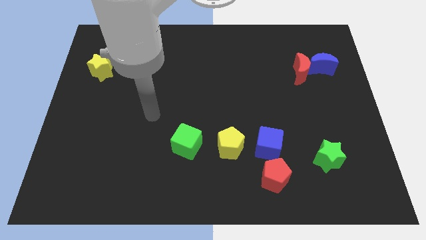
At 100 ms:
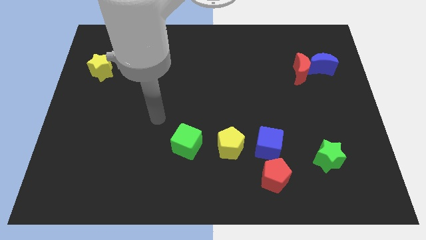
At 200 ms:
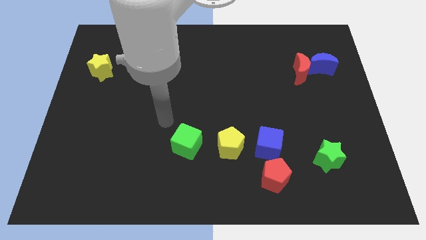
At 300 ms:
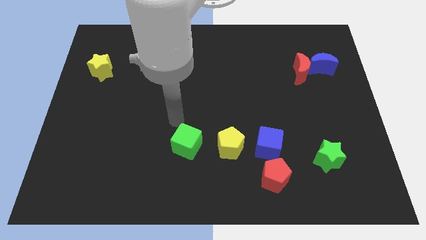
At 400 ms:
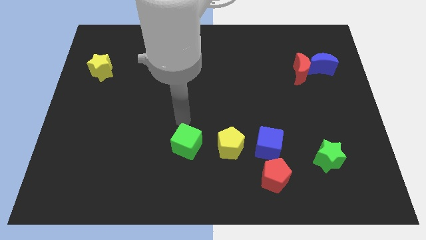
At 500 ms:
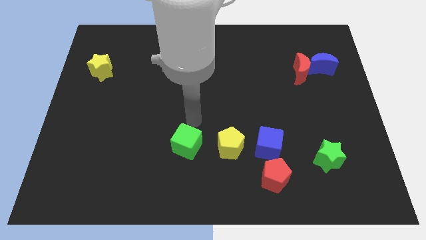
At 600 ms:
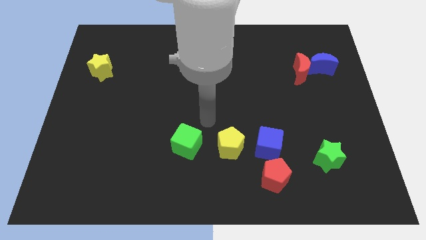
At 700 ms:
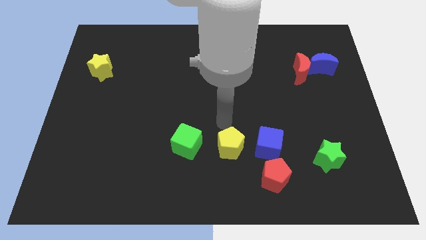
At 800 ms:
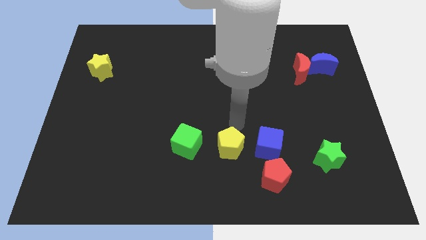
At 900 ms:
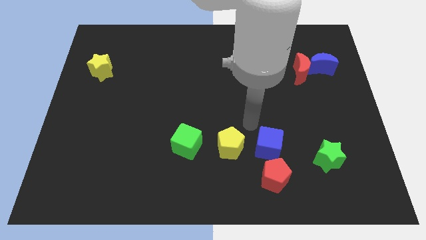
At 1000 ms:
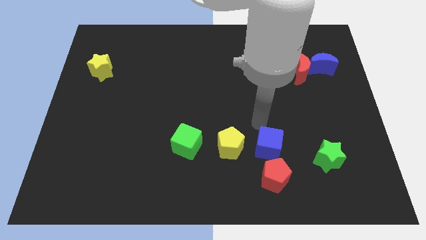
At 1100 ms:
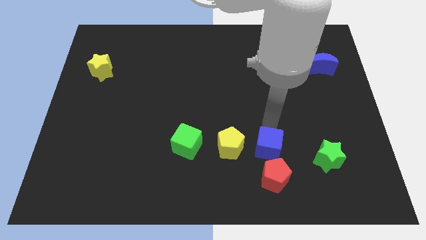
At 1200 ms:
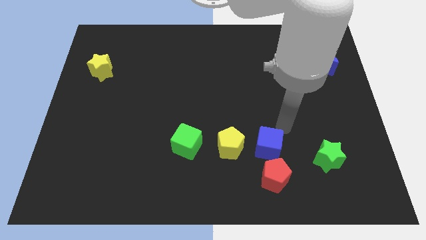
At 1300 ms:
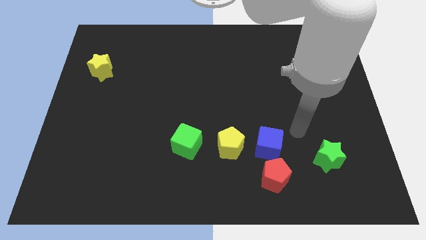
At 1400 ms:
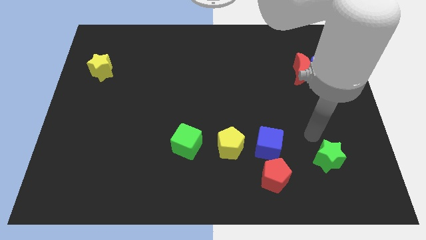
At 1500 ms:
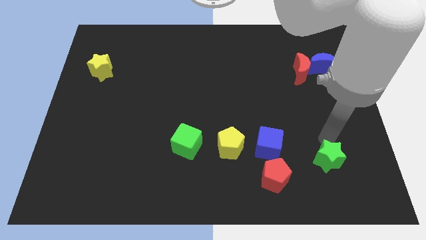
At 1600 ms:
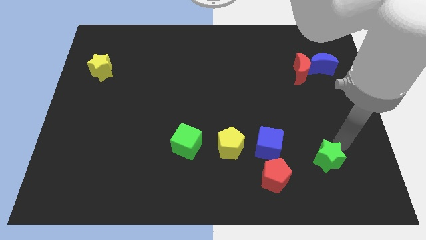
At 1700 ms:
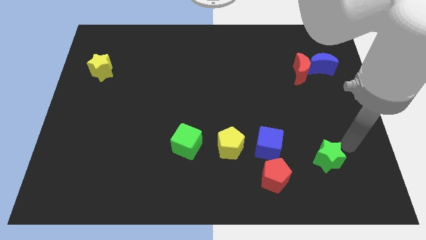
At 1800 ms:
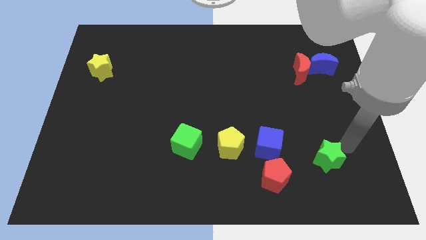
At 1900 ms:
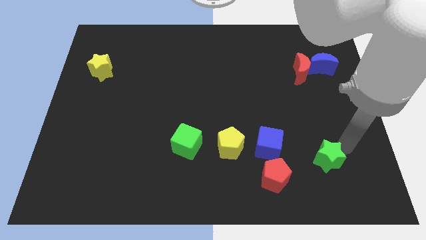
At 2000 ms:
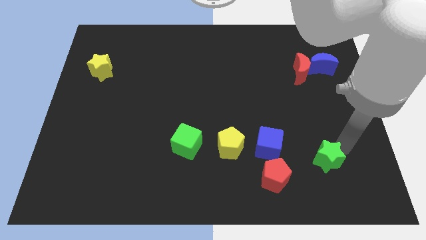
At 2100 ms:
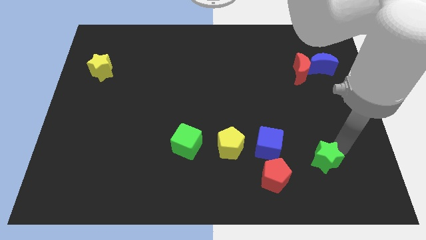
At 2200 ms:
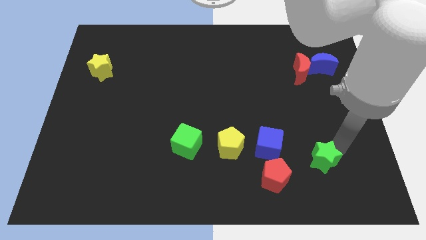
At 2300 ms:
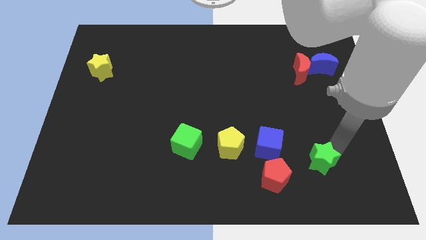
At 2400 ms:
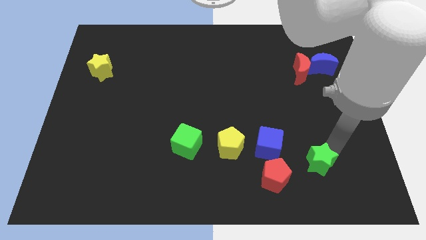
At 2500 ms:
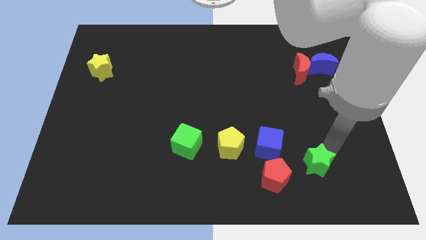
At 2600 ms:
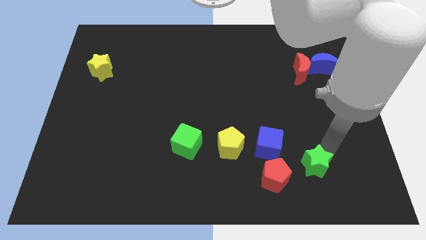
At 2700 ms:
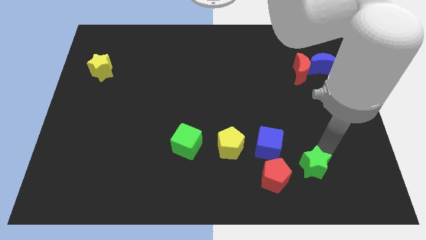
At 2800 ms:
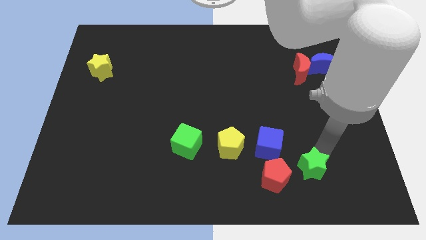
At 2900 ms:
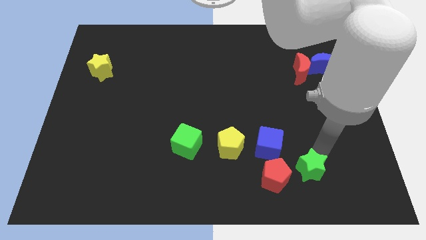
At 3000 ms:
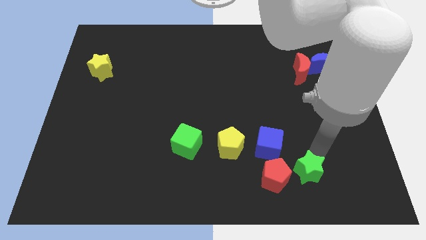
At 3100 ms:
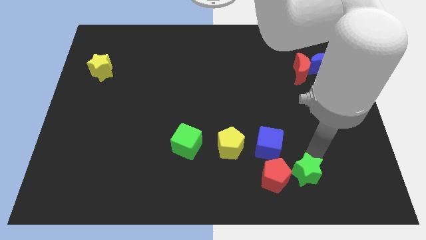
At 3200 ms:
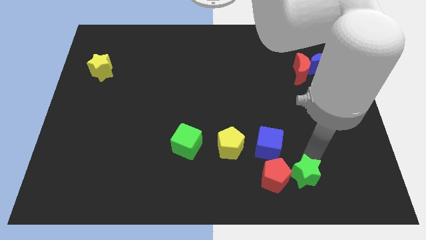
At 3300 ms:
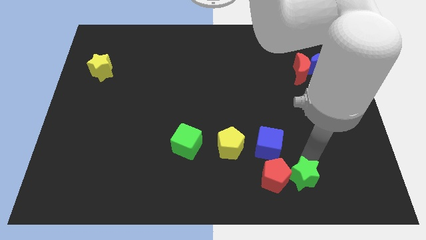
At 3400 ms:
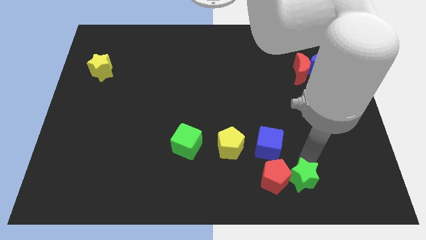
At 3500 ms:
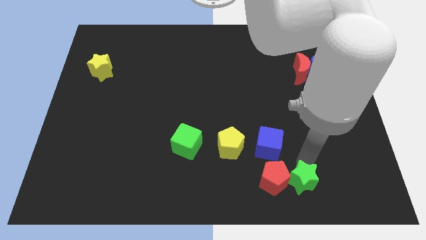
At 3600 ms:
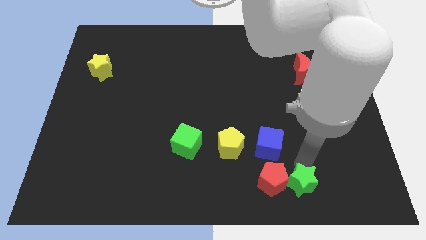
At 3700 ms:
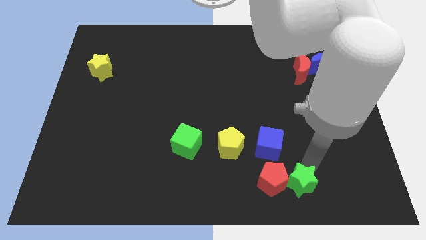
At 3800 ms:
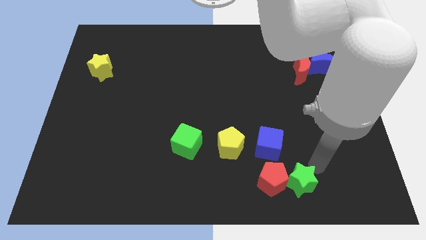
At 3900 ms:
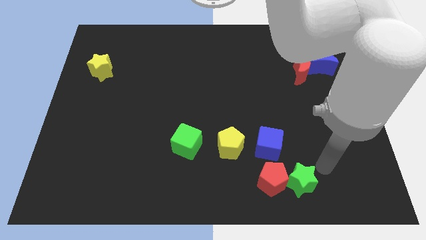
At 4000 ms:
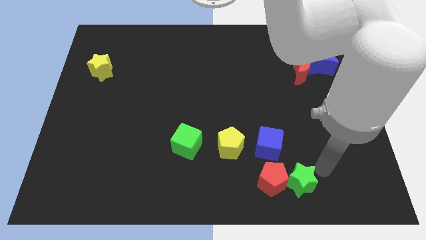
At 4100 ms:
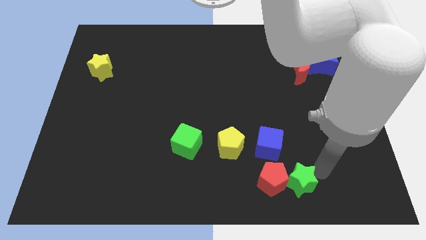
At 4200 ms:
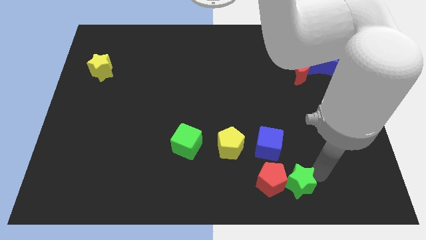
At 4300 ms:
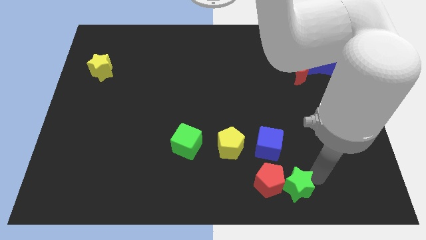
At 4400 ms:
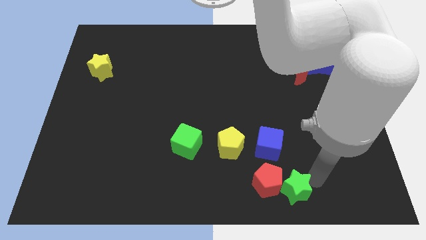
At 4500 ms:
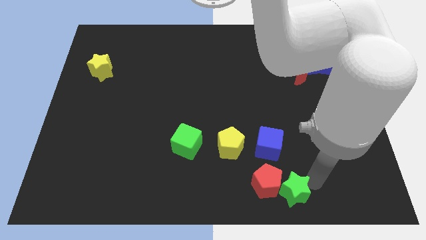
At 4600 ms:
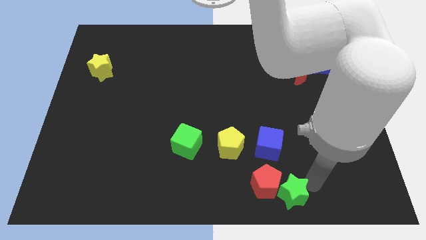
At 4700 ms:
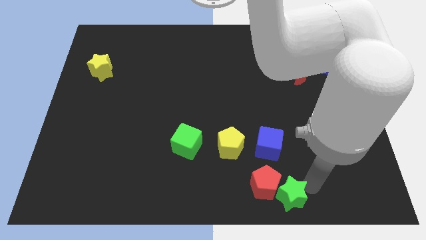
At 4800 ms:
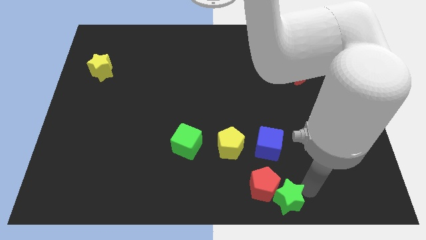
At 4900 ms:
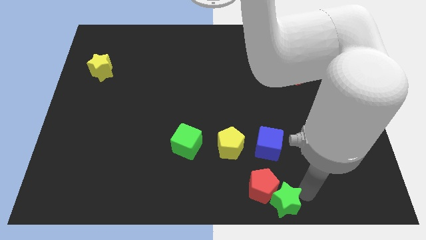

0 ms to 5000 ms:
put the green star to the bottom

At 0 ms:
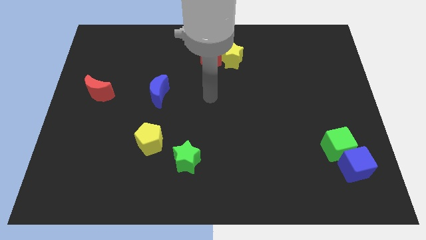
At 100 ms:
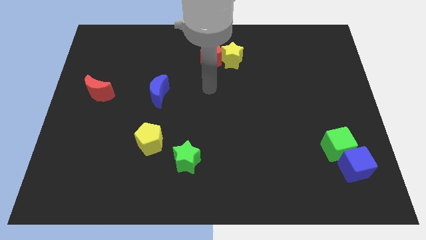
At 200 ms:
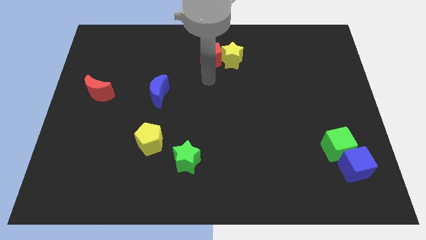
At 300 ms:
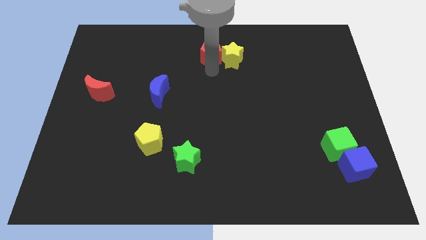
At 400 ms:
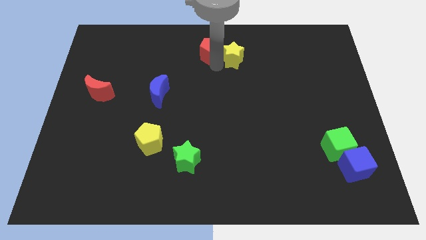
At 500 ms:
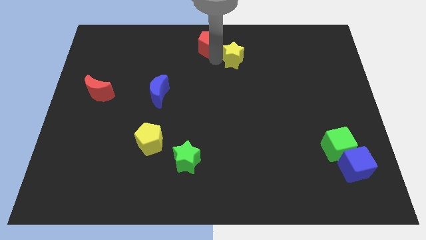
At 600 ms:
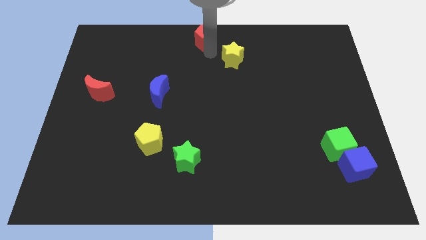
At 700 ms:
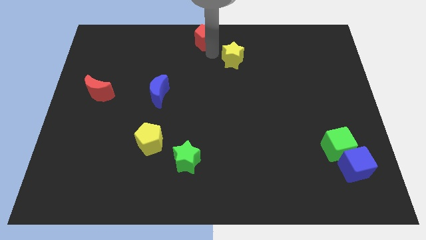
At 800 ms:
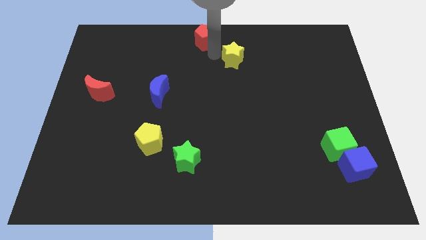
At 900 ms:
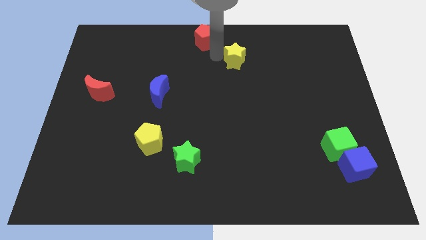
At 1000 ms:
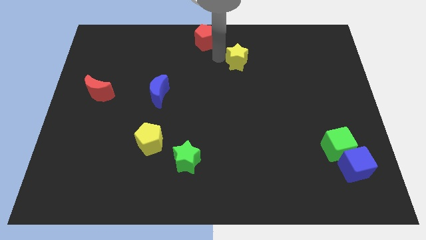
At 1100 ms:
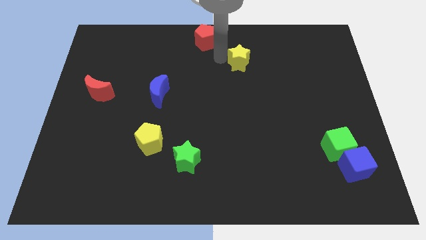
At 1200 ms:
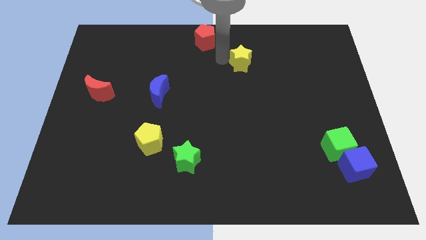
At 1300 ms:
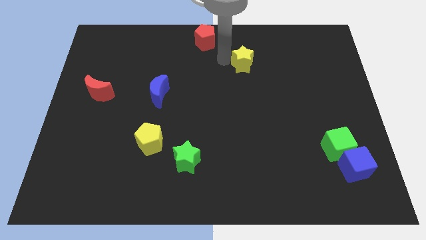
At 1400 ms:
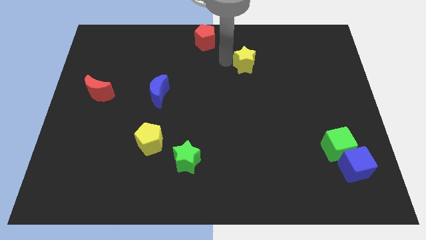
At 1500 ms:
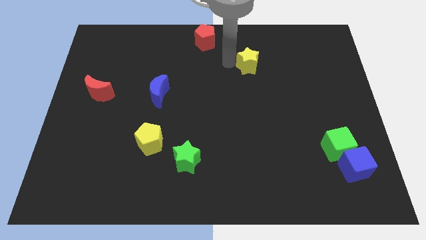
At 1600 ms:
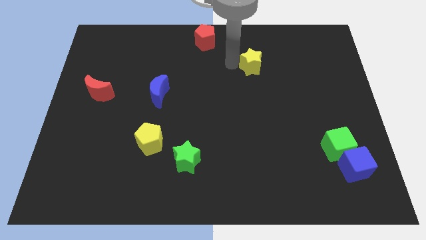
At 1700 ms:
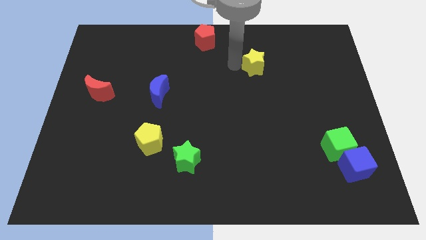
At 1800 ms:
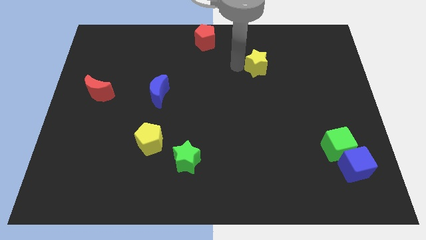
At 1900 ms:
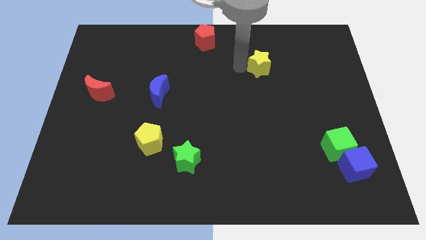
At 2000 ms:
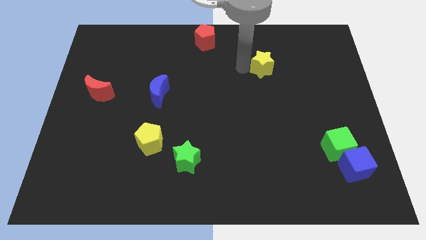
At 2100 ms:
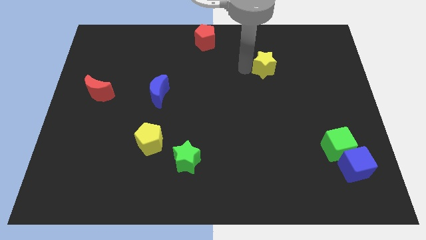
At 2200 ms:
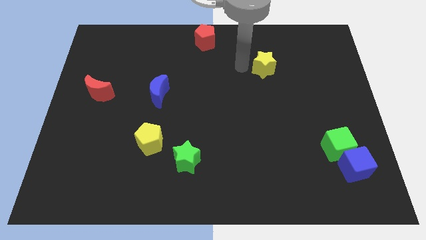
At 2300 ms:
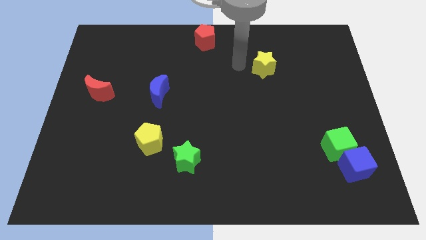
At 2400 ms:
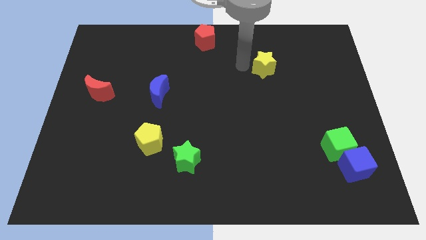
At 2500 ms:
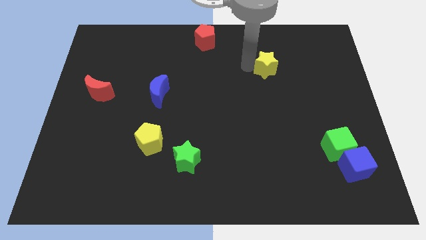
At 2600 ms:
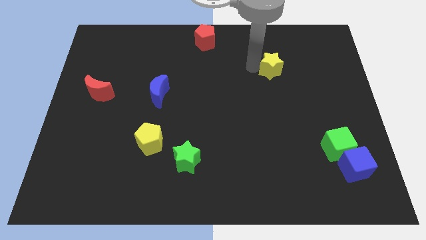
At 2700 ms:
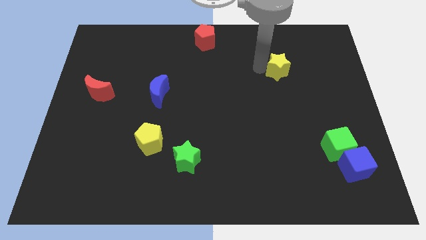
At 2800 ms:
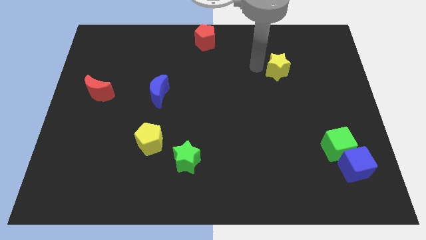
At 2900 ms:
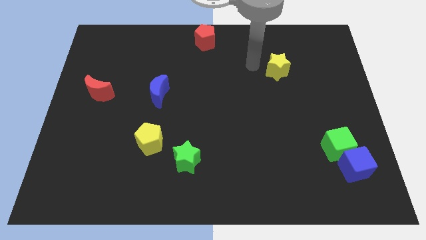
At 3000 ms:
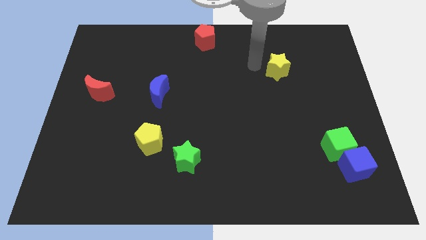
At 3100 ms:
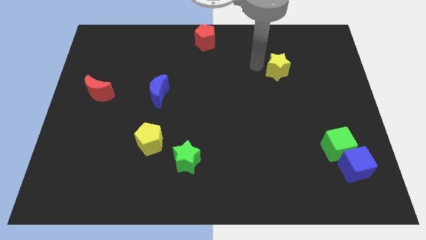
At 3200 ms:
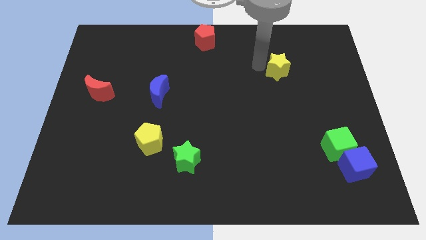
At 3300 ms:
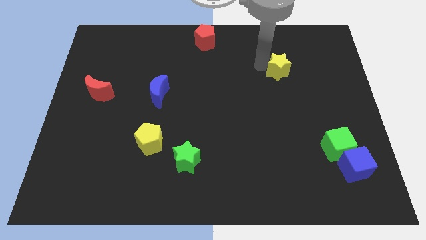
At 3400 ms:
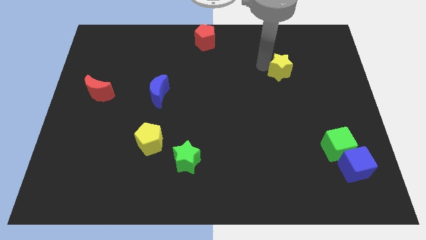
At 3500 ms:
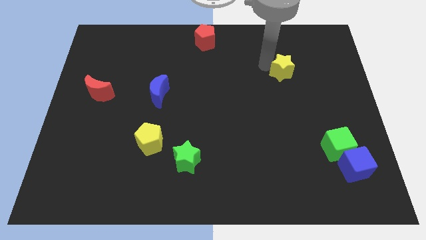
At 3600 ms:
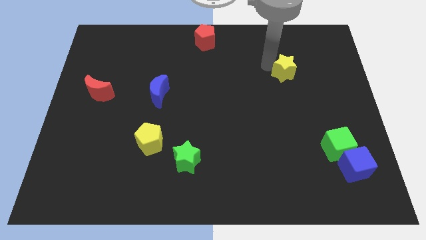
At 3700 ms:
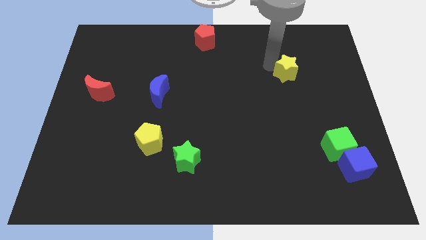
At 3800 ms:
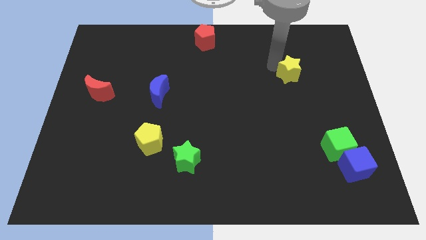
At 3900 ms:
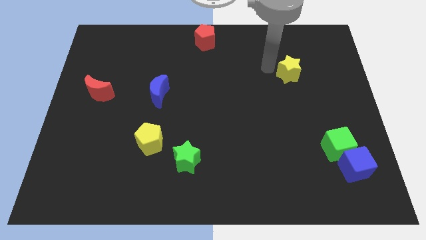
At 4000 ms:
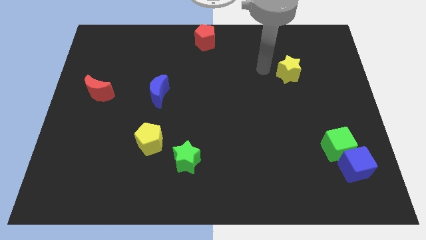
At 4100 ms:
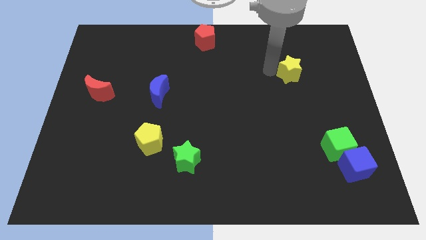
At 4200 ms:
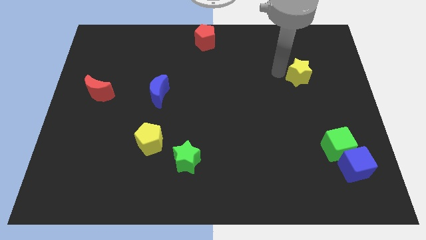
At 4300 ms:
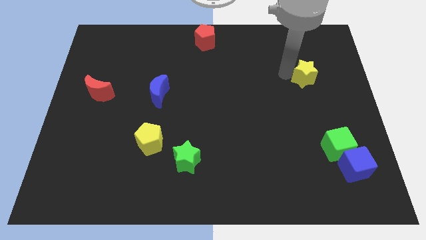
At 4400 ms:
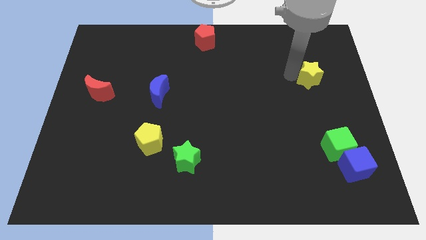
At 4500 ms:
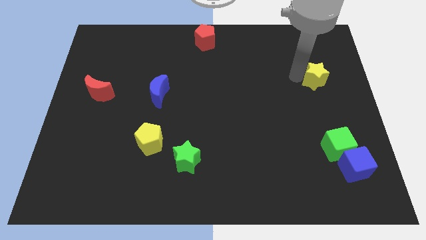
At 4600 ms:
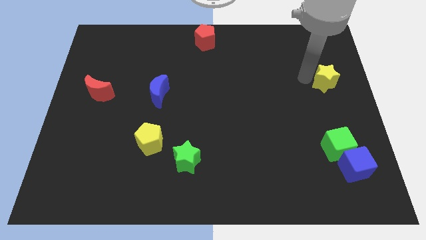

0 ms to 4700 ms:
slide the yellow star to the right side of the board
